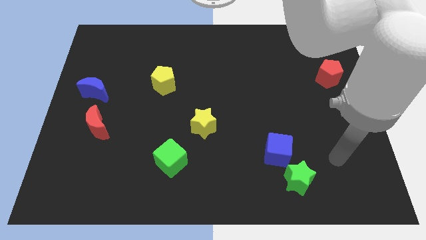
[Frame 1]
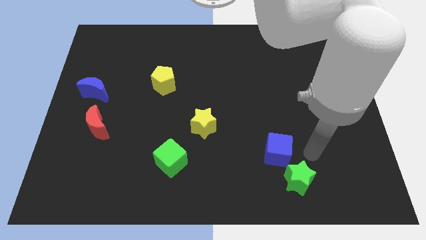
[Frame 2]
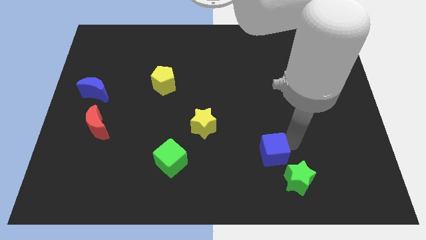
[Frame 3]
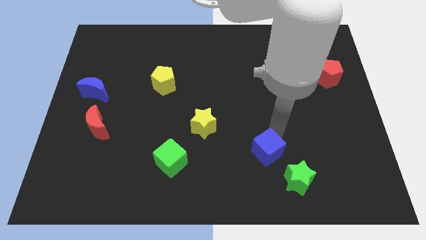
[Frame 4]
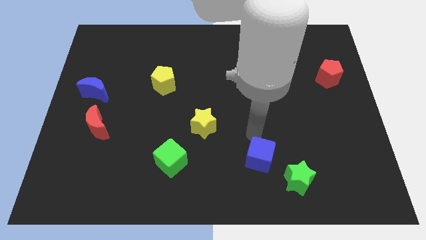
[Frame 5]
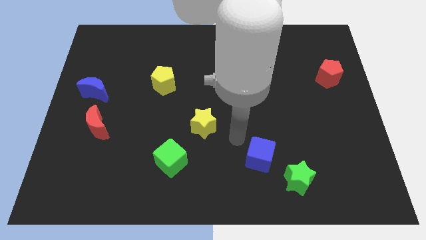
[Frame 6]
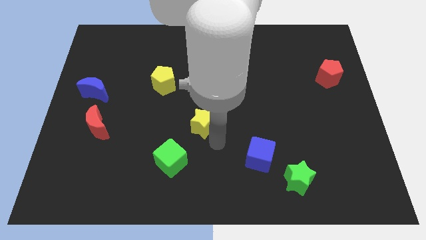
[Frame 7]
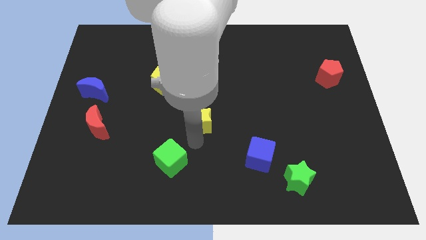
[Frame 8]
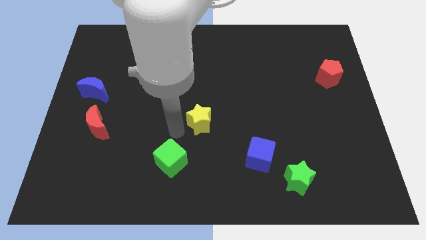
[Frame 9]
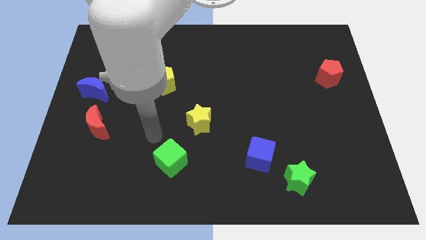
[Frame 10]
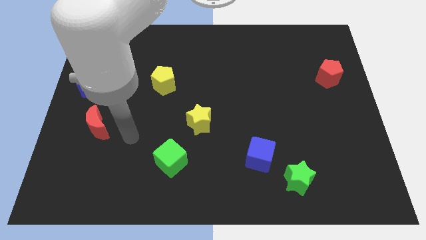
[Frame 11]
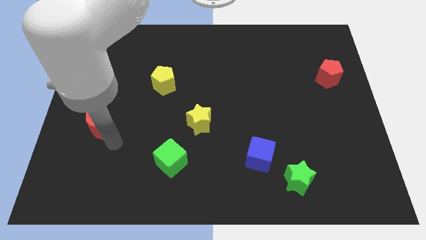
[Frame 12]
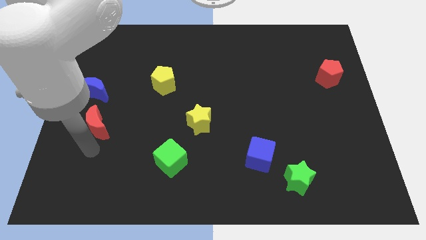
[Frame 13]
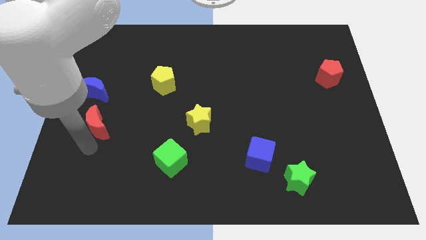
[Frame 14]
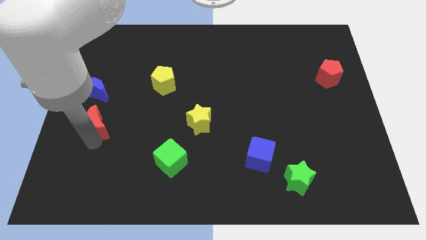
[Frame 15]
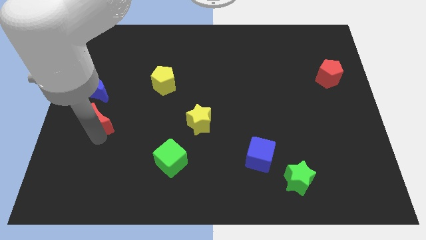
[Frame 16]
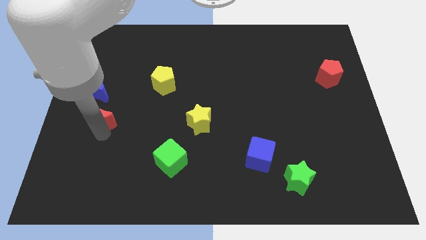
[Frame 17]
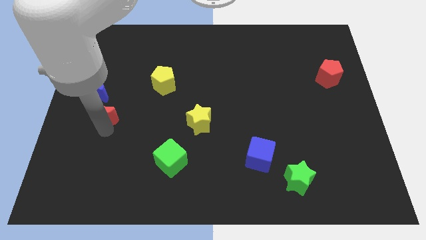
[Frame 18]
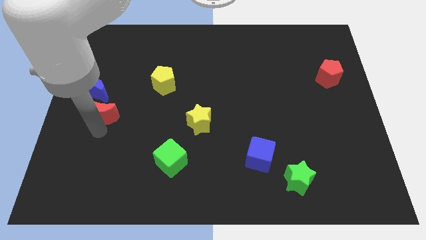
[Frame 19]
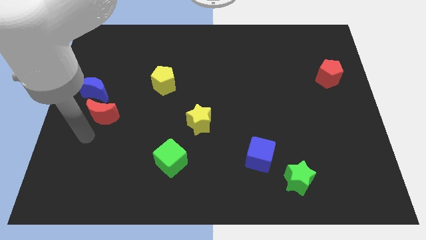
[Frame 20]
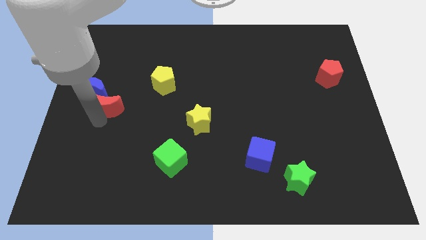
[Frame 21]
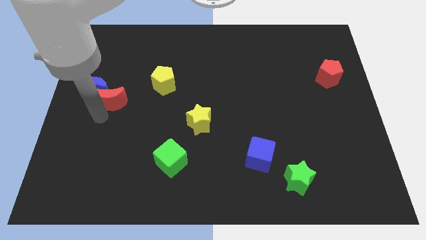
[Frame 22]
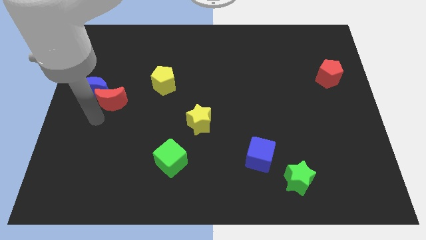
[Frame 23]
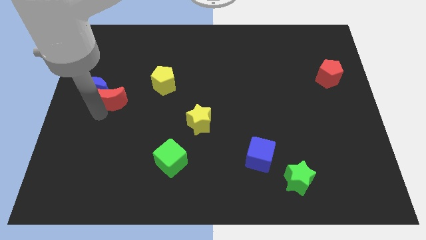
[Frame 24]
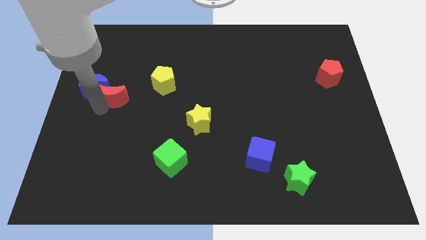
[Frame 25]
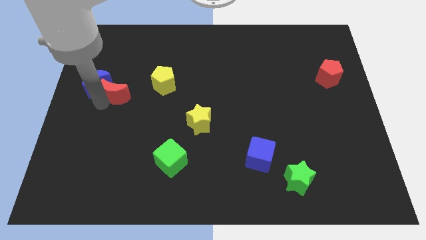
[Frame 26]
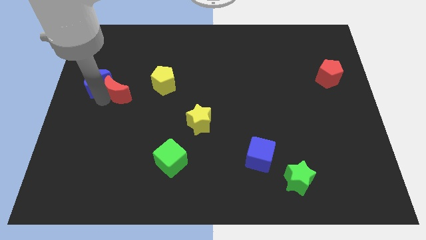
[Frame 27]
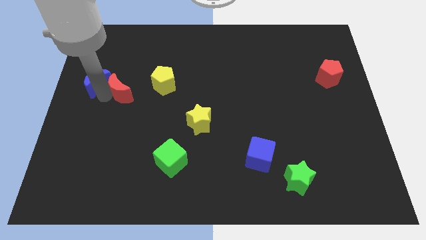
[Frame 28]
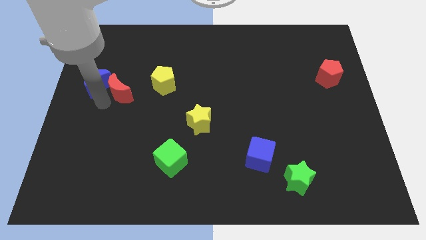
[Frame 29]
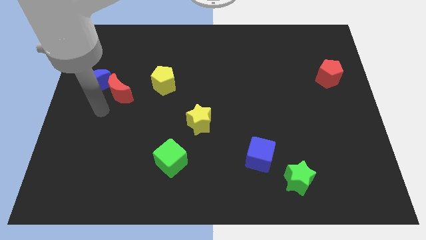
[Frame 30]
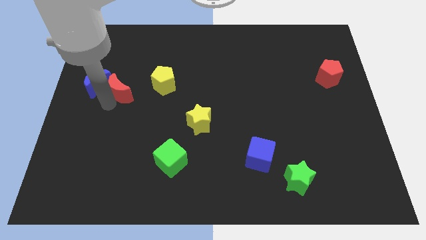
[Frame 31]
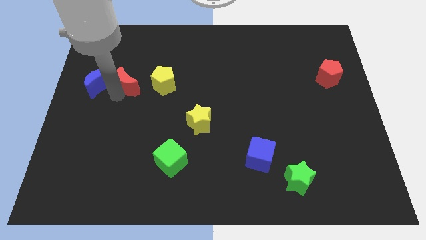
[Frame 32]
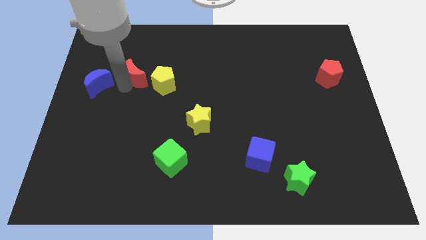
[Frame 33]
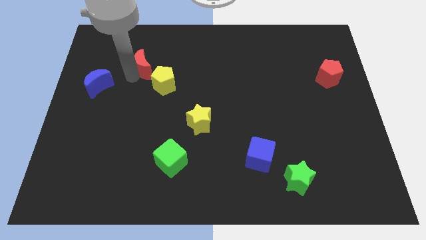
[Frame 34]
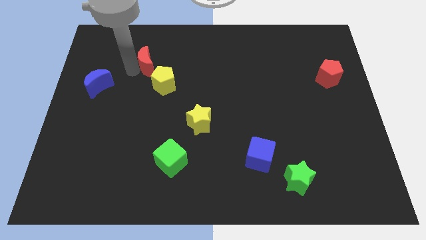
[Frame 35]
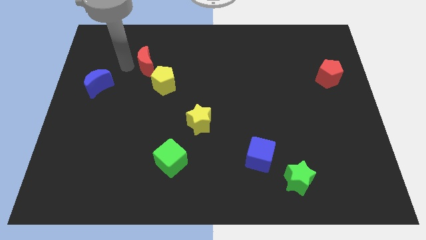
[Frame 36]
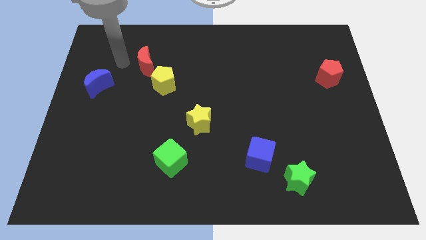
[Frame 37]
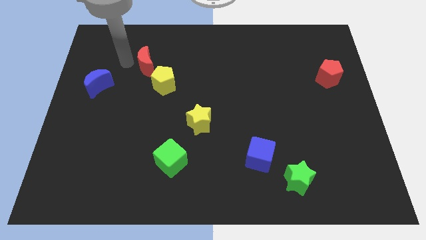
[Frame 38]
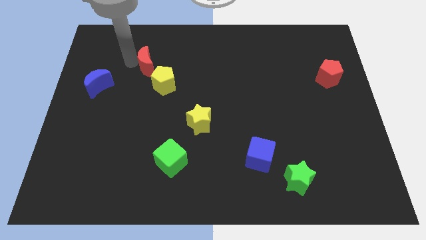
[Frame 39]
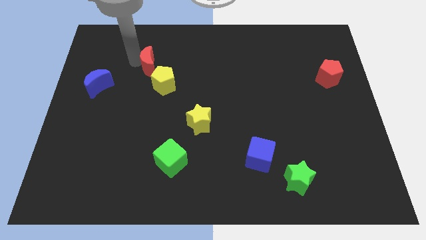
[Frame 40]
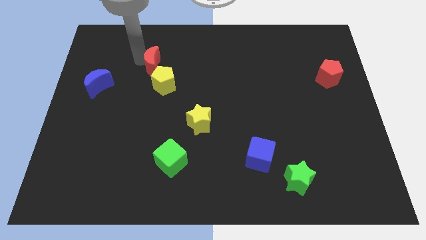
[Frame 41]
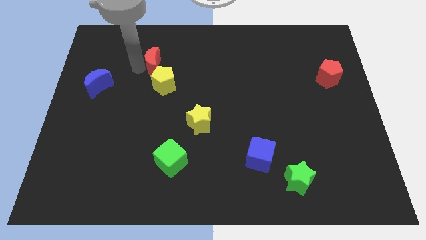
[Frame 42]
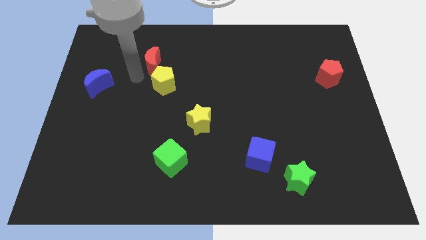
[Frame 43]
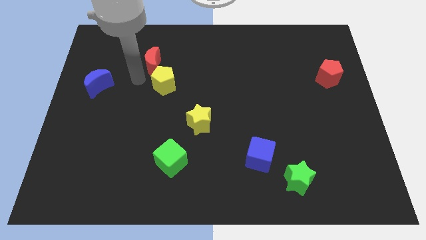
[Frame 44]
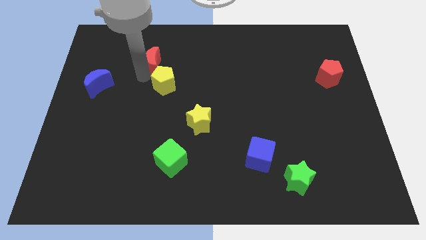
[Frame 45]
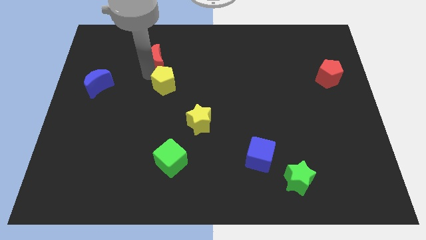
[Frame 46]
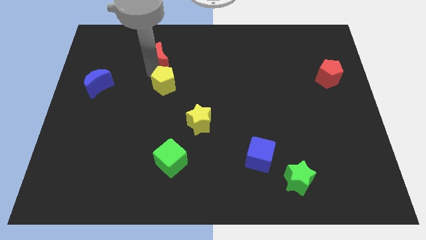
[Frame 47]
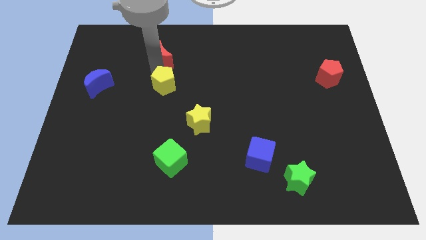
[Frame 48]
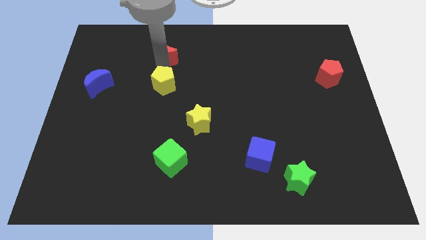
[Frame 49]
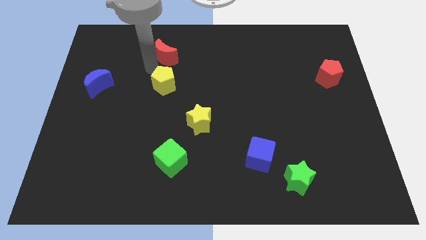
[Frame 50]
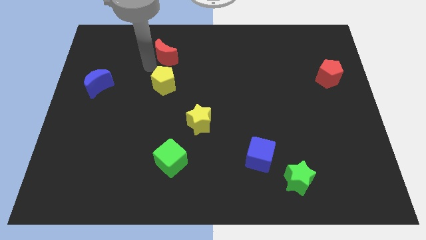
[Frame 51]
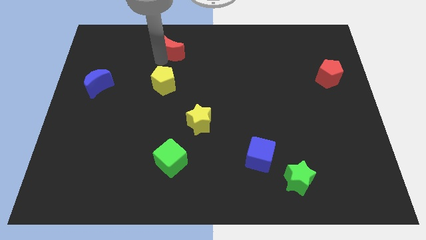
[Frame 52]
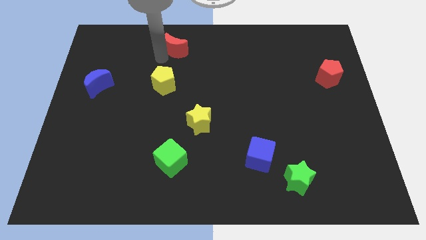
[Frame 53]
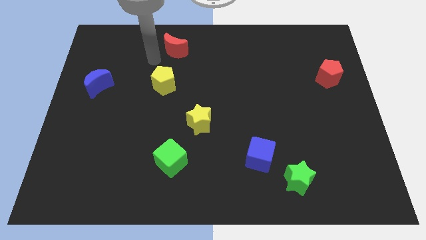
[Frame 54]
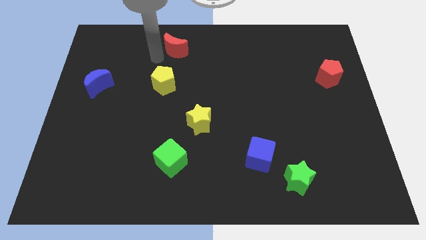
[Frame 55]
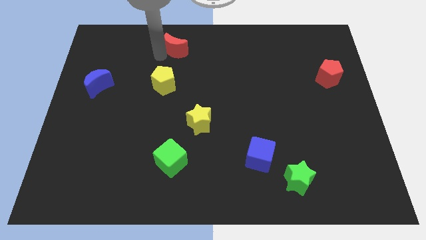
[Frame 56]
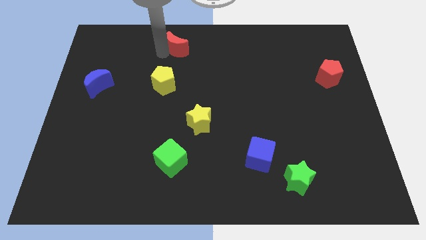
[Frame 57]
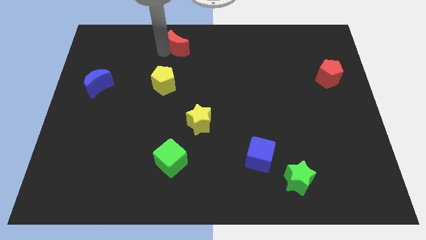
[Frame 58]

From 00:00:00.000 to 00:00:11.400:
put the red moon to the top

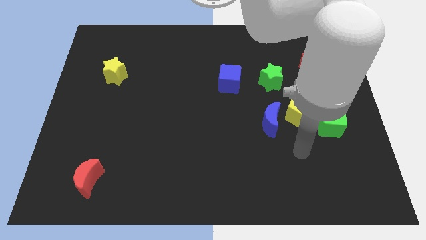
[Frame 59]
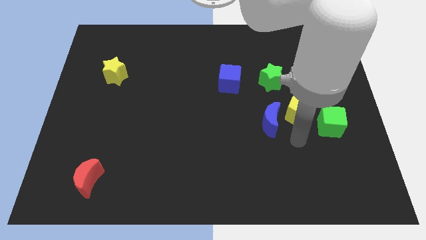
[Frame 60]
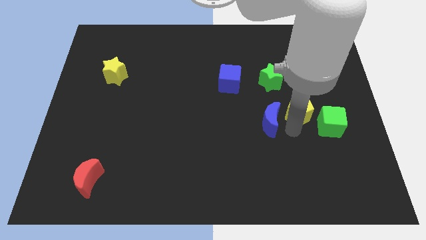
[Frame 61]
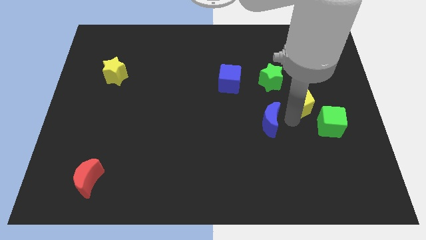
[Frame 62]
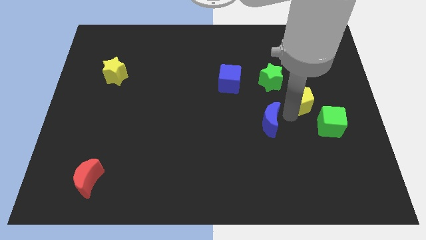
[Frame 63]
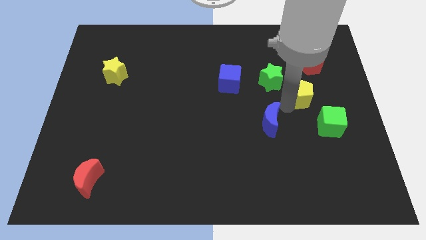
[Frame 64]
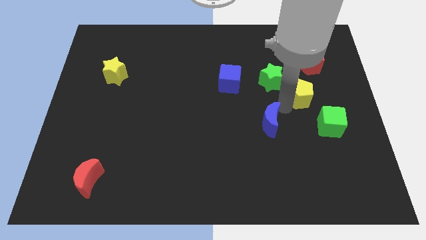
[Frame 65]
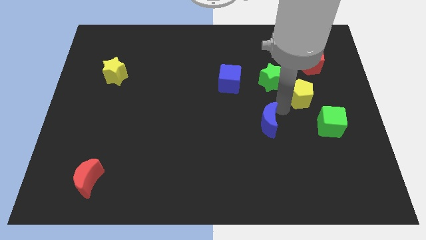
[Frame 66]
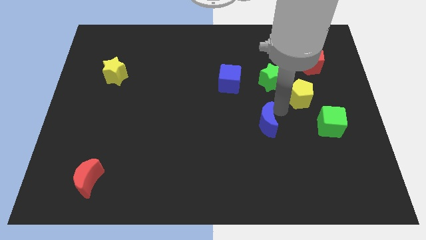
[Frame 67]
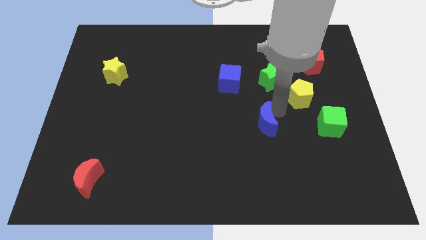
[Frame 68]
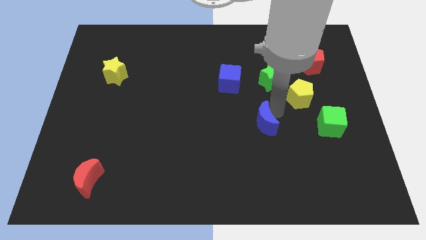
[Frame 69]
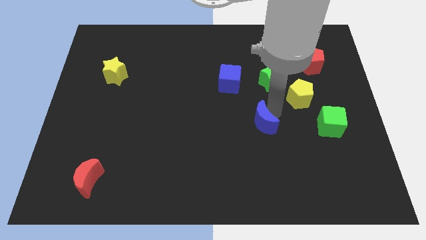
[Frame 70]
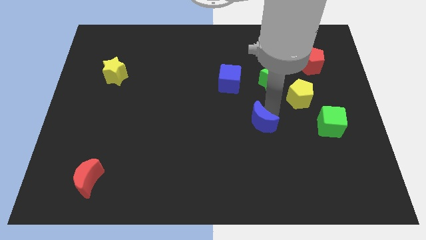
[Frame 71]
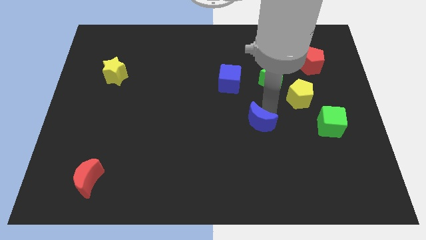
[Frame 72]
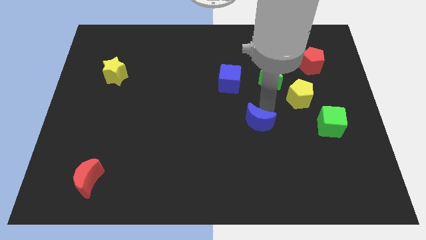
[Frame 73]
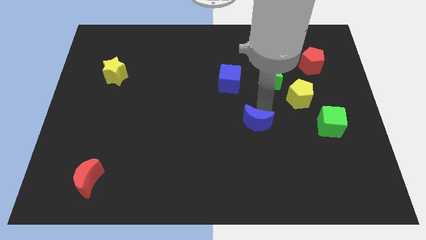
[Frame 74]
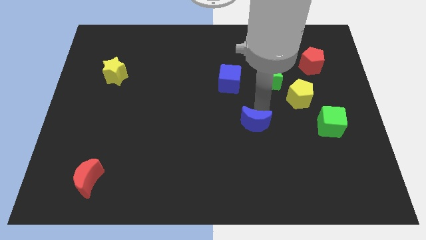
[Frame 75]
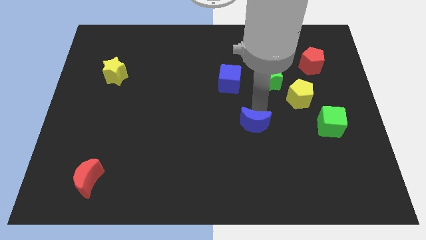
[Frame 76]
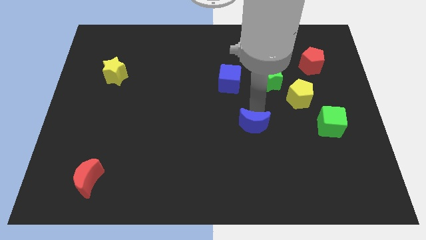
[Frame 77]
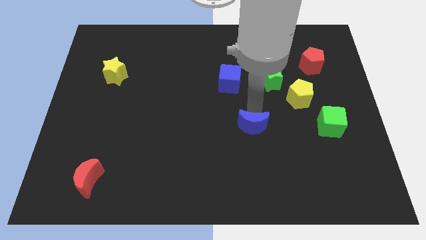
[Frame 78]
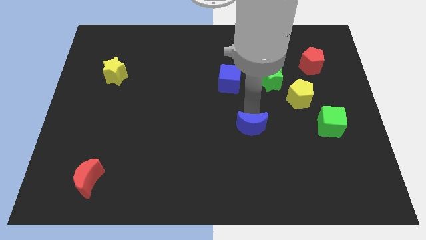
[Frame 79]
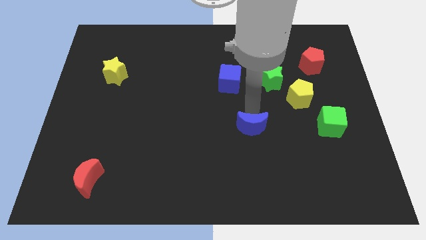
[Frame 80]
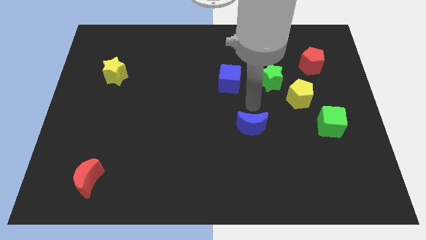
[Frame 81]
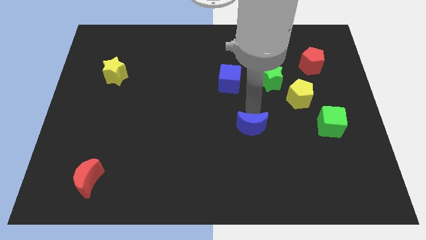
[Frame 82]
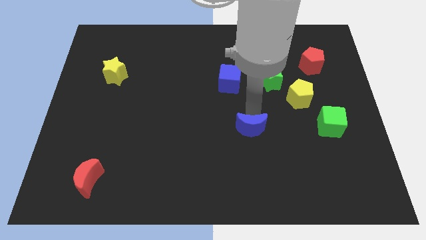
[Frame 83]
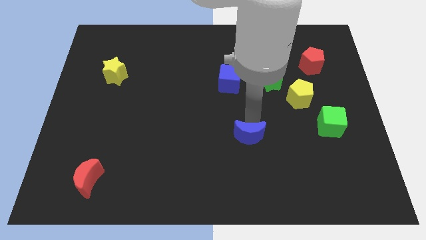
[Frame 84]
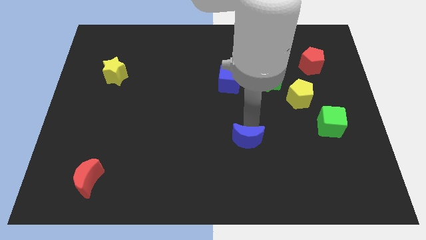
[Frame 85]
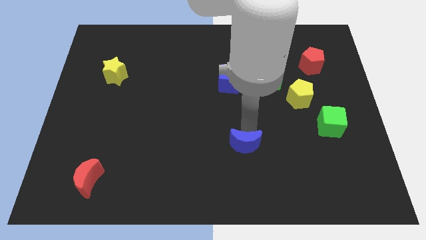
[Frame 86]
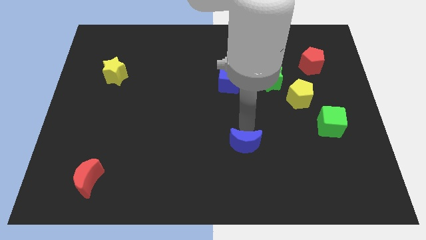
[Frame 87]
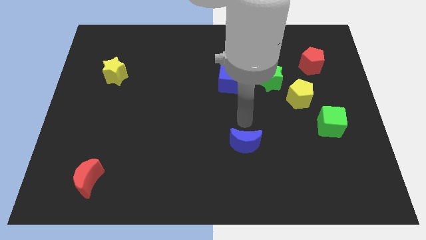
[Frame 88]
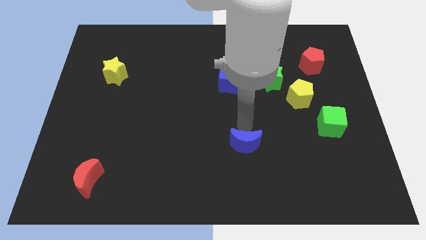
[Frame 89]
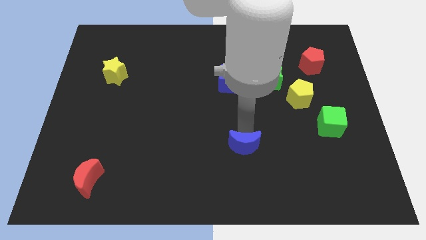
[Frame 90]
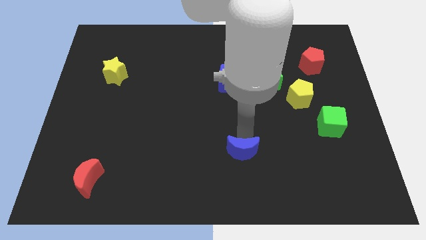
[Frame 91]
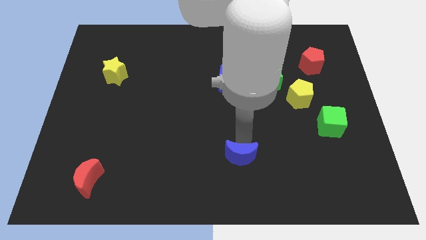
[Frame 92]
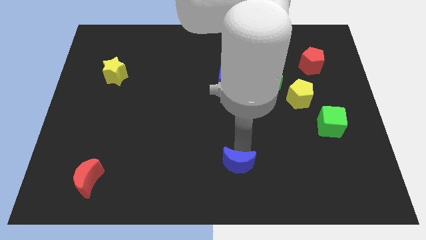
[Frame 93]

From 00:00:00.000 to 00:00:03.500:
push the blue moon to the bottom side
